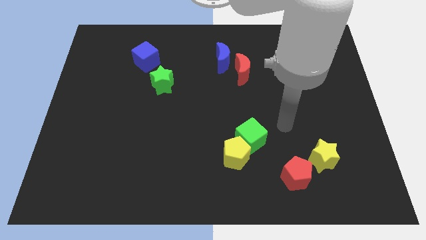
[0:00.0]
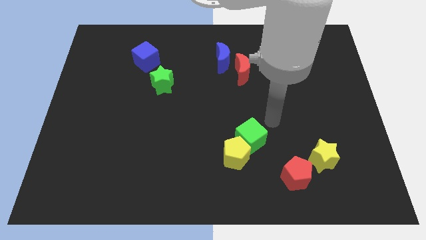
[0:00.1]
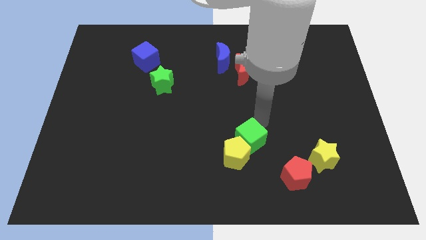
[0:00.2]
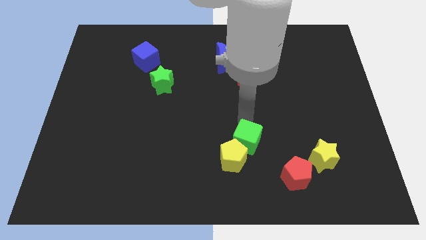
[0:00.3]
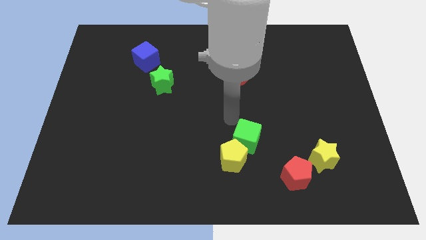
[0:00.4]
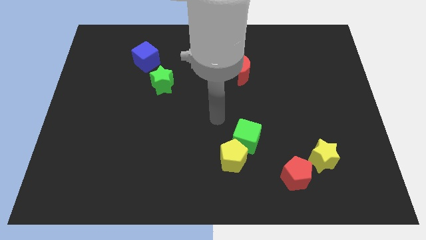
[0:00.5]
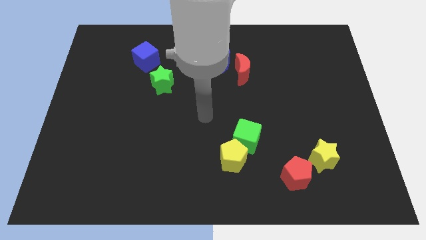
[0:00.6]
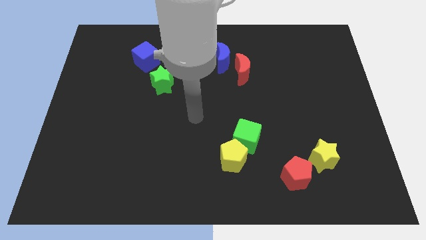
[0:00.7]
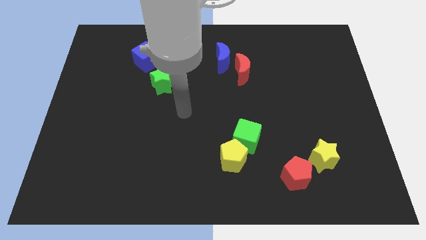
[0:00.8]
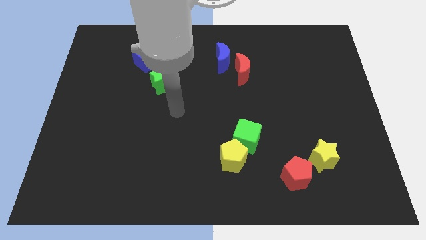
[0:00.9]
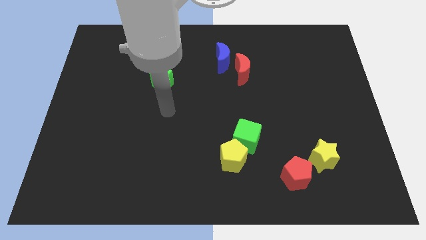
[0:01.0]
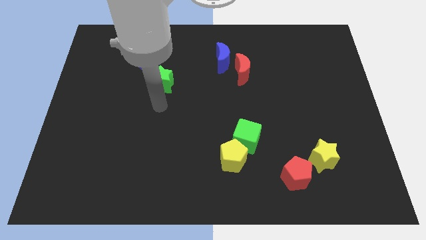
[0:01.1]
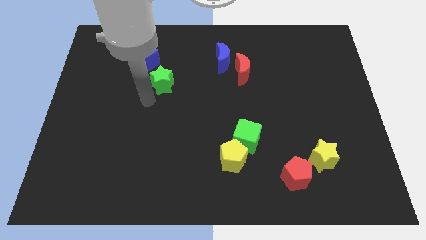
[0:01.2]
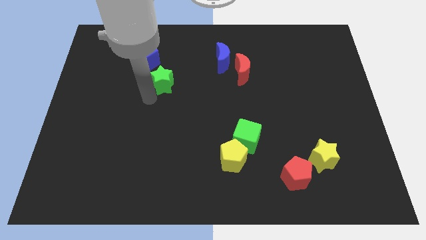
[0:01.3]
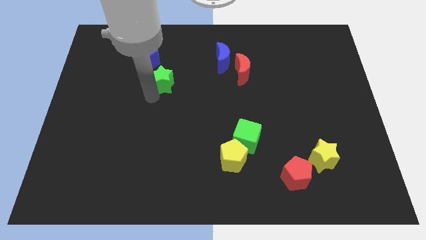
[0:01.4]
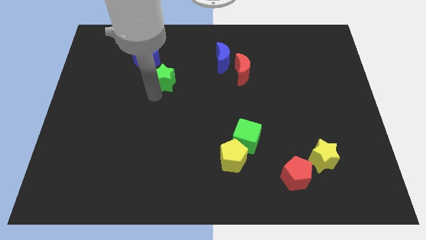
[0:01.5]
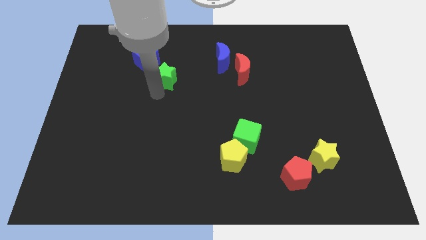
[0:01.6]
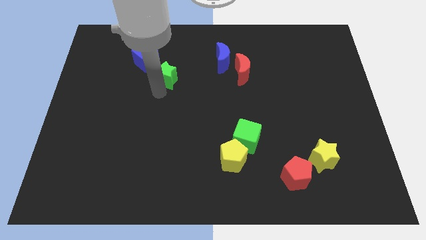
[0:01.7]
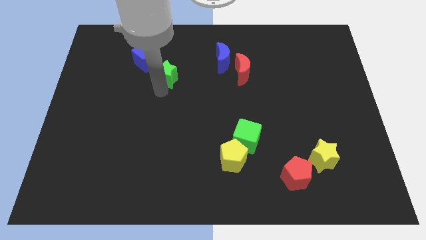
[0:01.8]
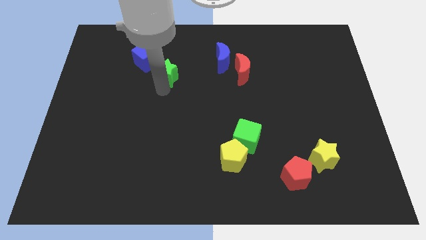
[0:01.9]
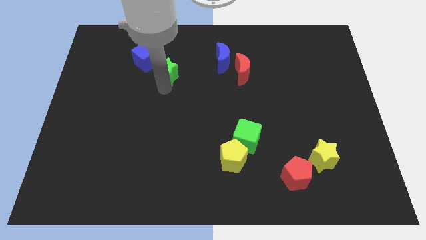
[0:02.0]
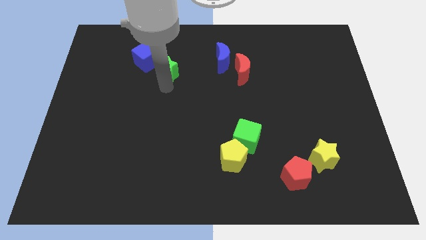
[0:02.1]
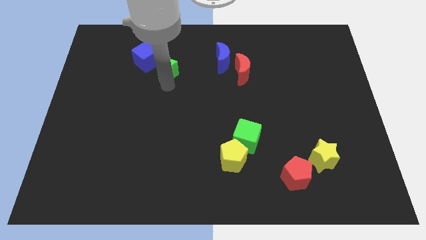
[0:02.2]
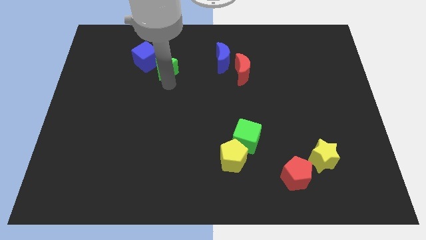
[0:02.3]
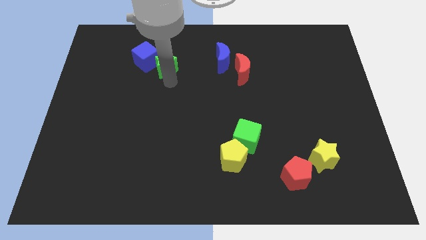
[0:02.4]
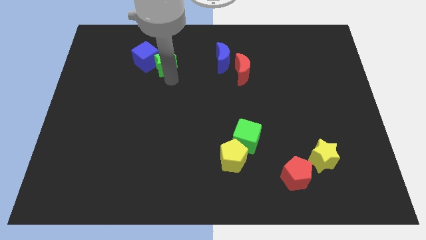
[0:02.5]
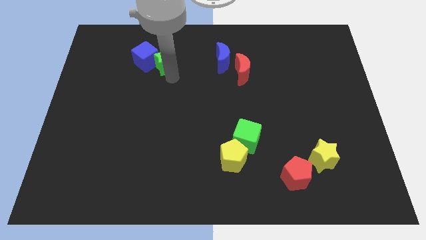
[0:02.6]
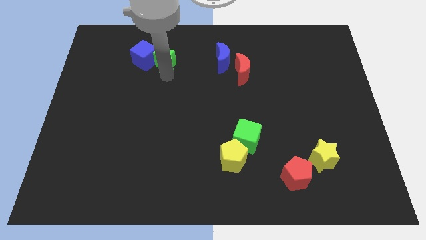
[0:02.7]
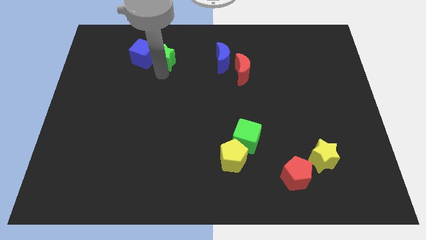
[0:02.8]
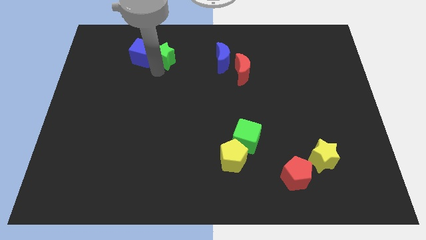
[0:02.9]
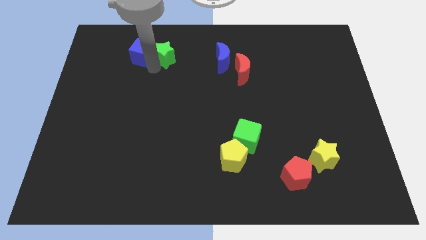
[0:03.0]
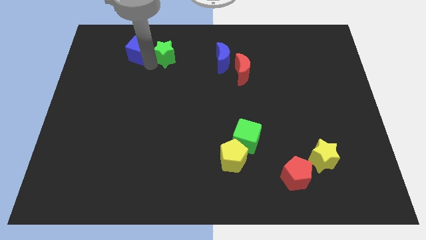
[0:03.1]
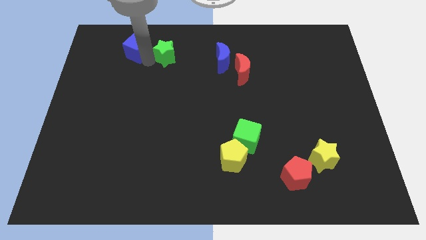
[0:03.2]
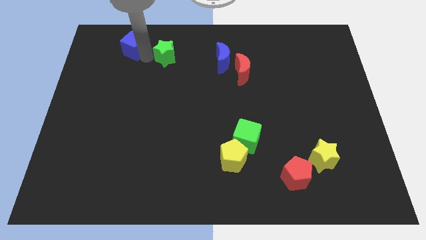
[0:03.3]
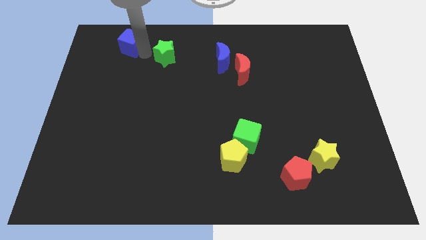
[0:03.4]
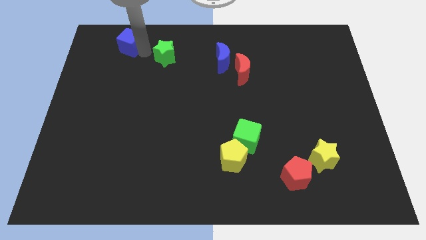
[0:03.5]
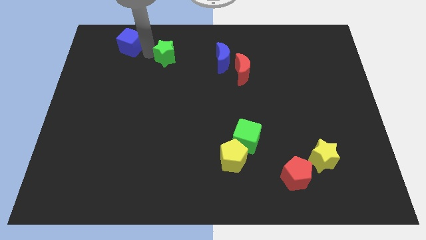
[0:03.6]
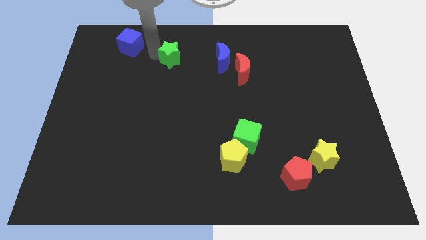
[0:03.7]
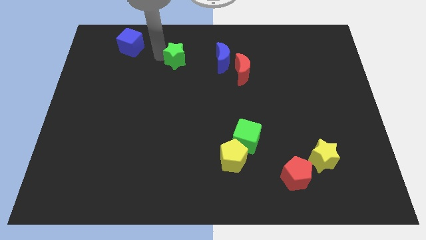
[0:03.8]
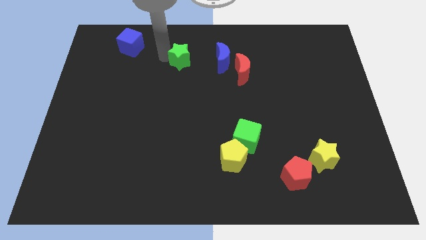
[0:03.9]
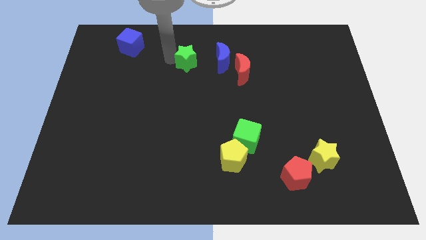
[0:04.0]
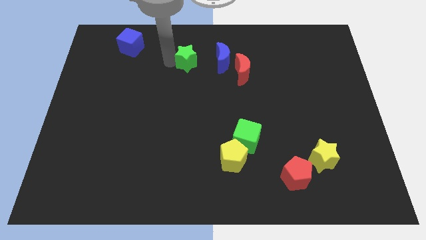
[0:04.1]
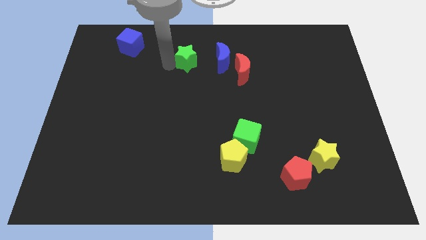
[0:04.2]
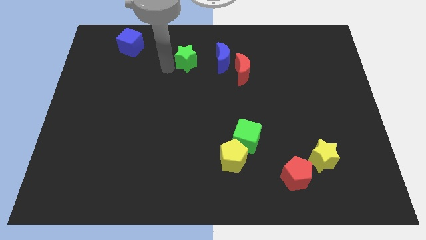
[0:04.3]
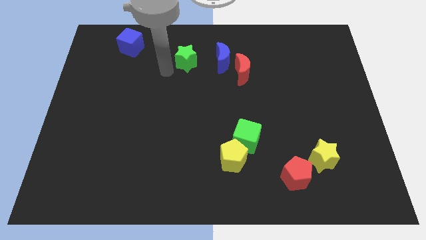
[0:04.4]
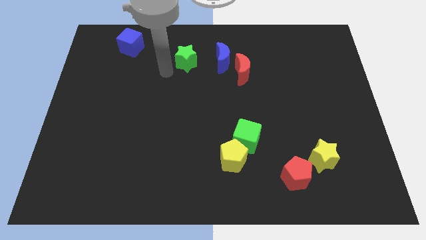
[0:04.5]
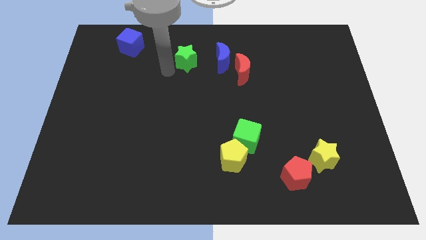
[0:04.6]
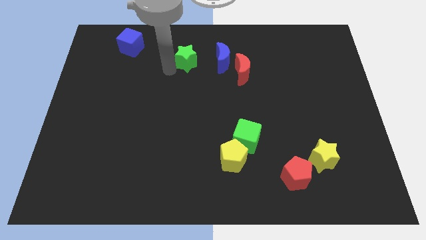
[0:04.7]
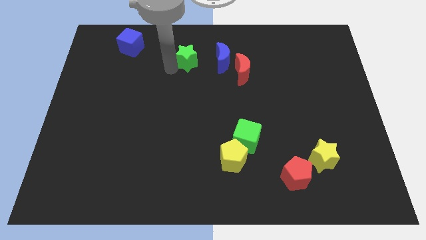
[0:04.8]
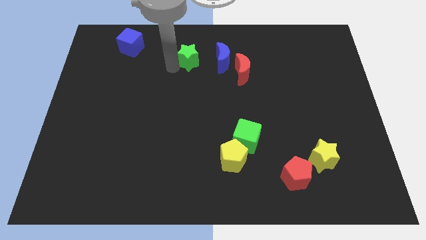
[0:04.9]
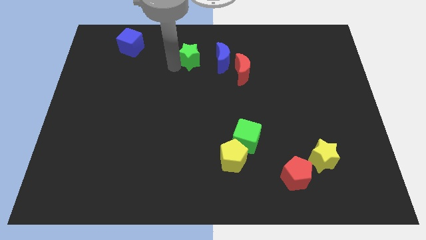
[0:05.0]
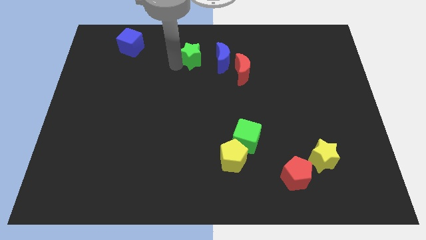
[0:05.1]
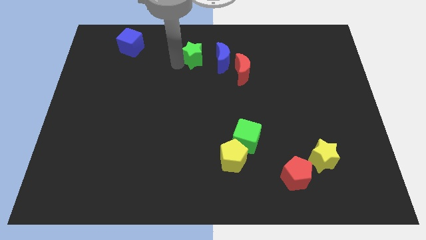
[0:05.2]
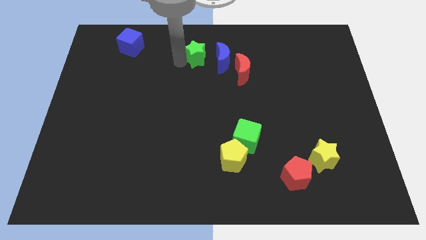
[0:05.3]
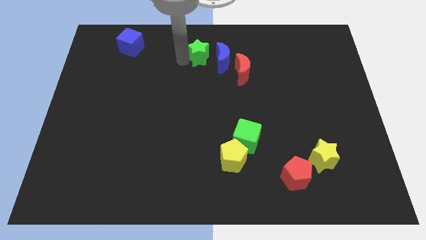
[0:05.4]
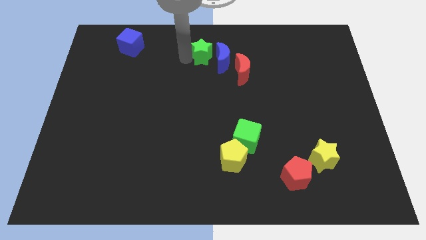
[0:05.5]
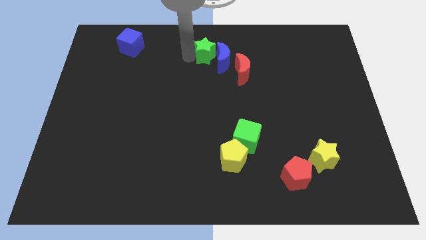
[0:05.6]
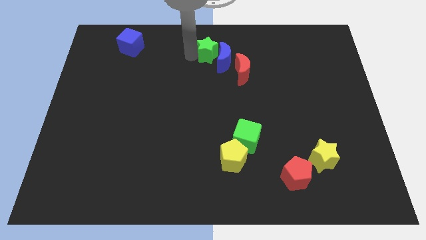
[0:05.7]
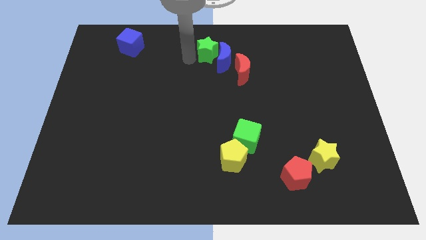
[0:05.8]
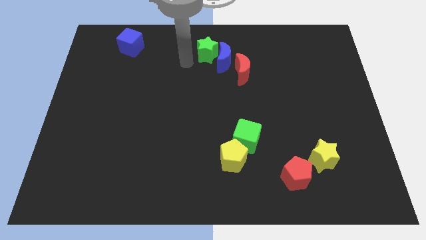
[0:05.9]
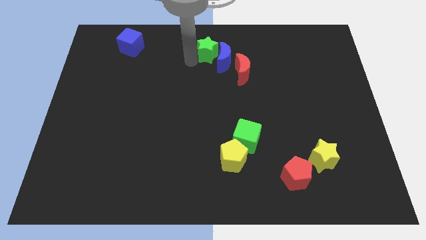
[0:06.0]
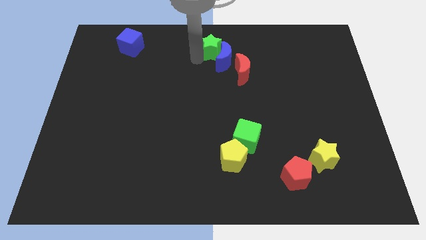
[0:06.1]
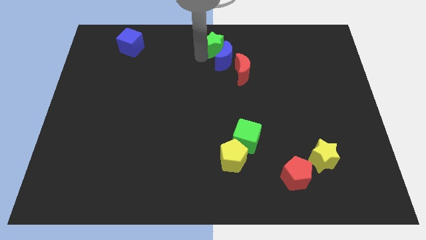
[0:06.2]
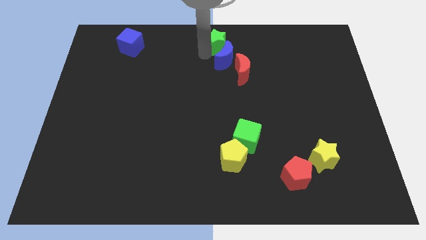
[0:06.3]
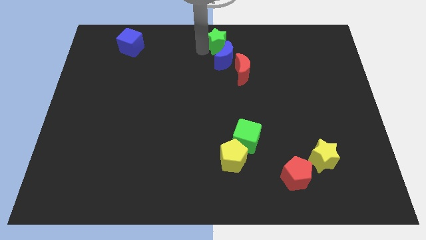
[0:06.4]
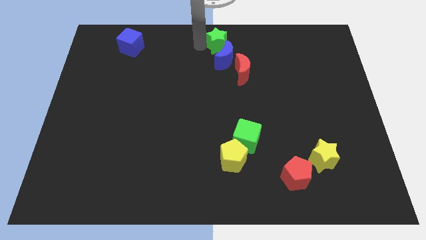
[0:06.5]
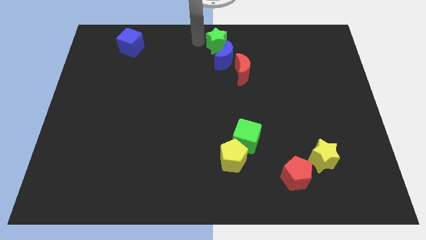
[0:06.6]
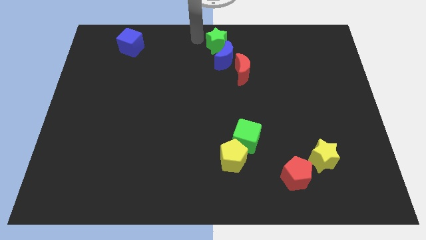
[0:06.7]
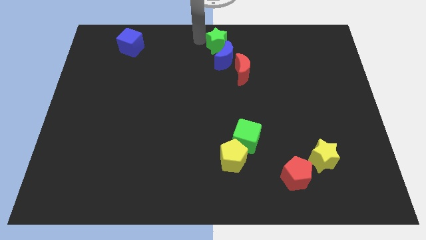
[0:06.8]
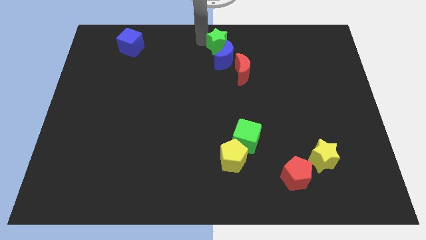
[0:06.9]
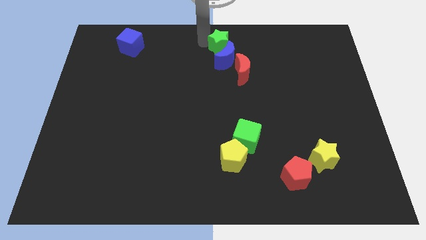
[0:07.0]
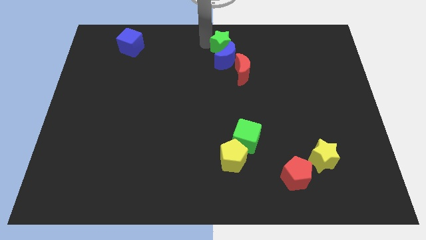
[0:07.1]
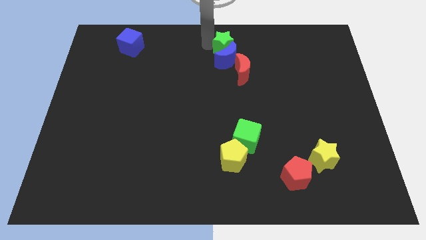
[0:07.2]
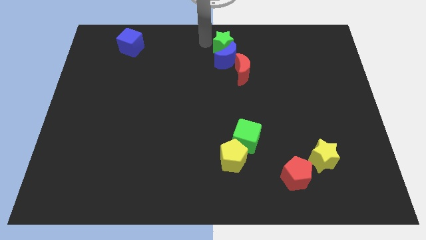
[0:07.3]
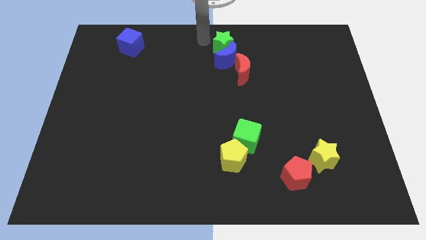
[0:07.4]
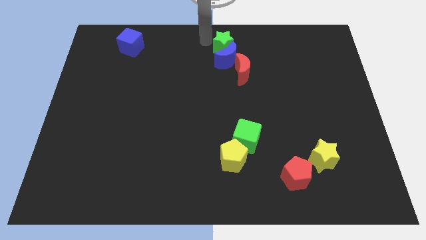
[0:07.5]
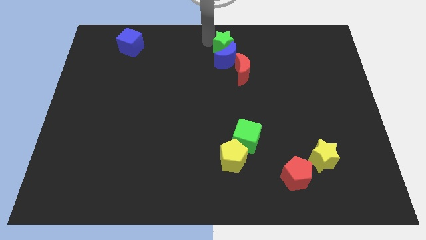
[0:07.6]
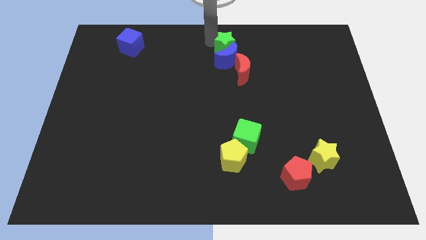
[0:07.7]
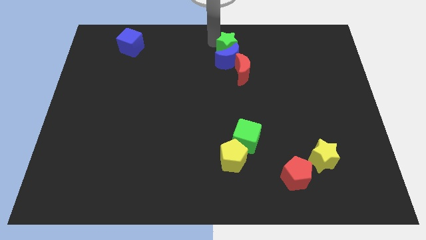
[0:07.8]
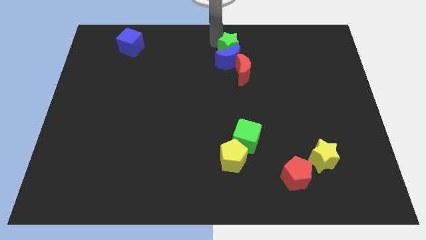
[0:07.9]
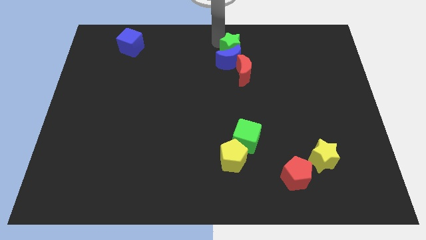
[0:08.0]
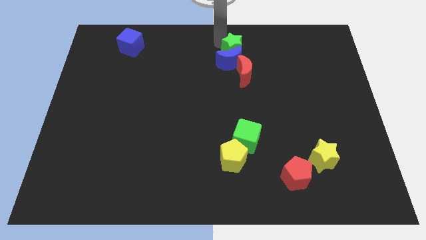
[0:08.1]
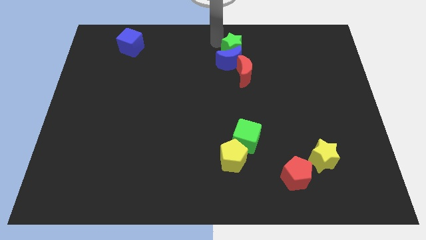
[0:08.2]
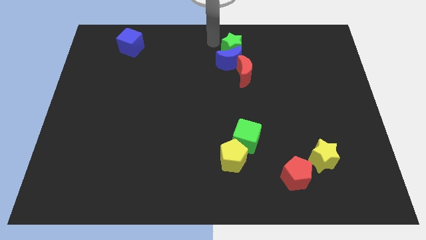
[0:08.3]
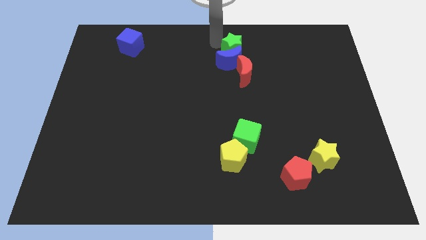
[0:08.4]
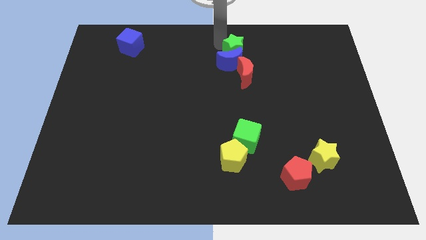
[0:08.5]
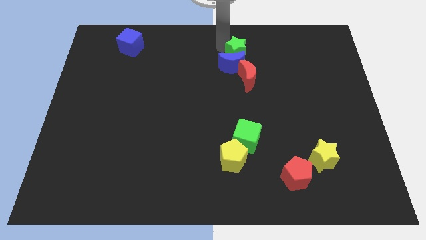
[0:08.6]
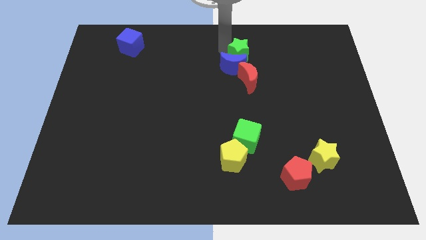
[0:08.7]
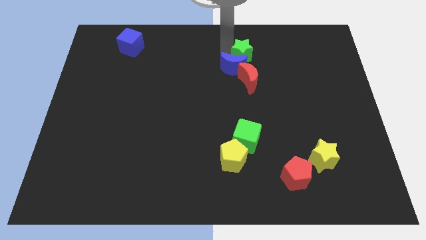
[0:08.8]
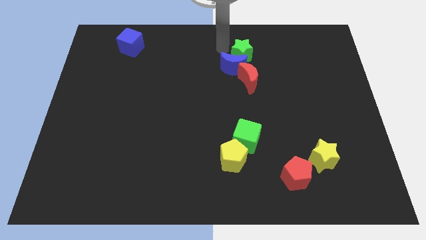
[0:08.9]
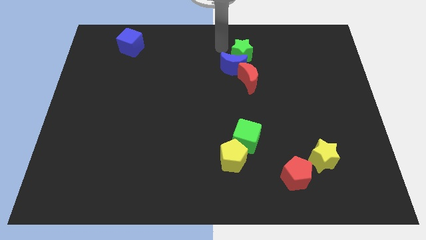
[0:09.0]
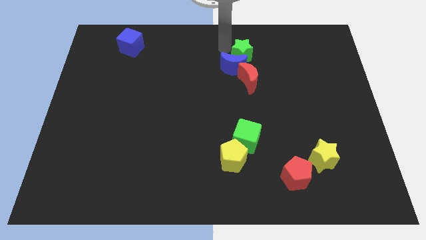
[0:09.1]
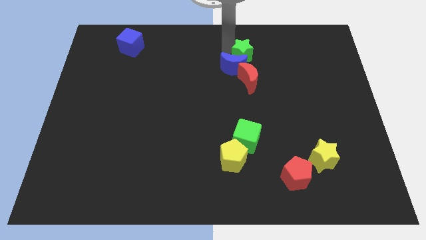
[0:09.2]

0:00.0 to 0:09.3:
push the green star right of the blue moon
